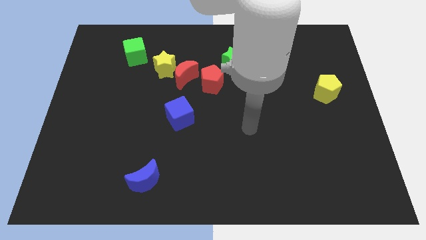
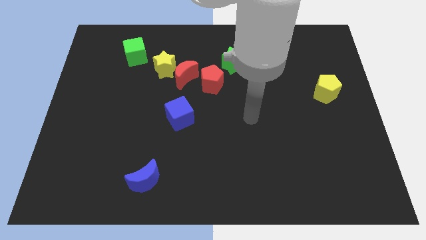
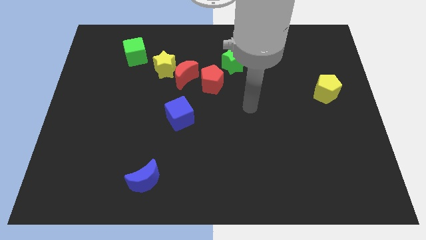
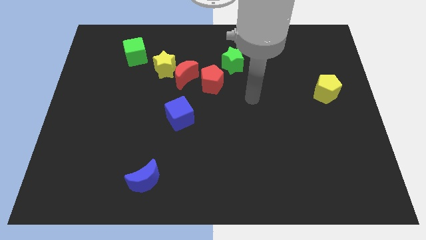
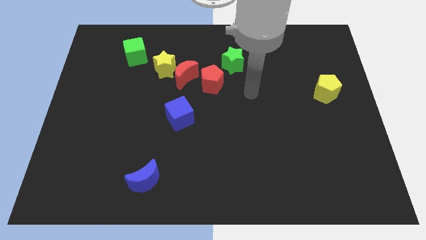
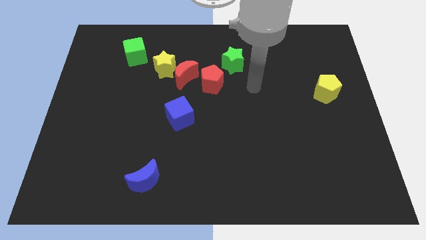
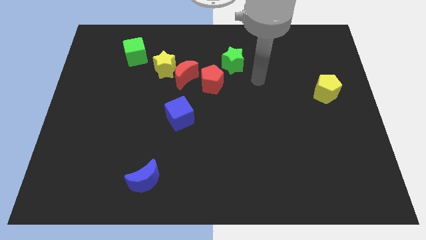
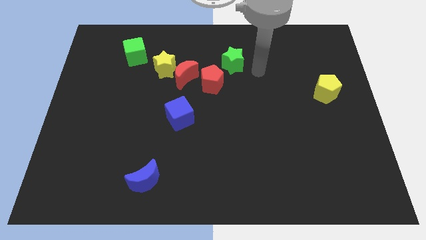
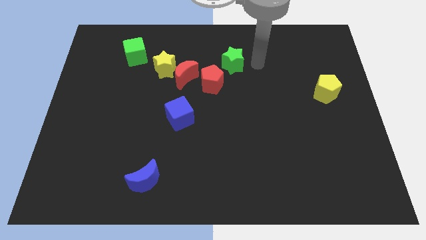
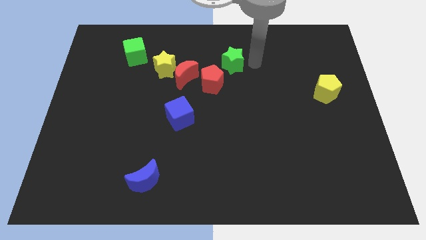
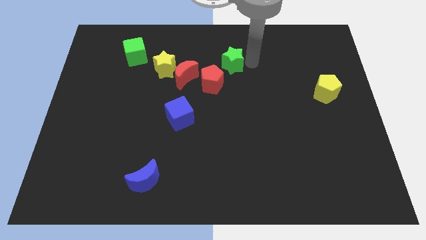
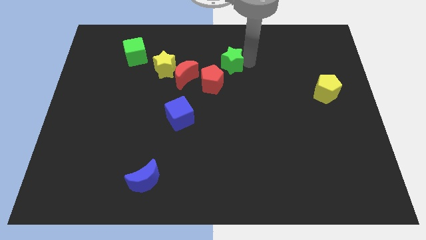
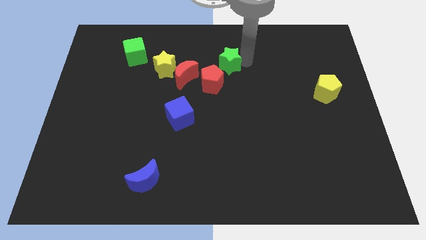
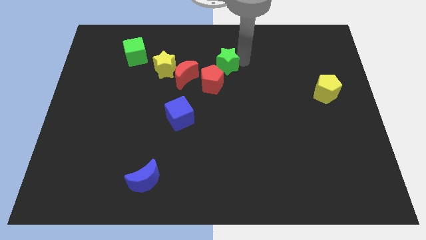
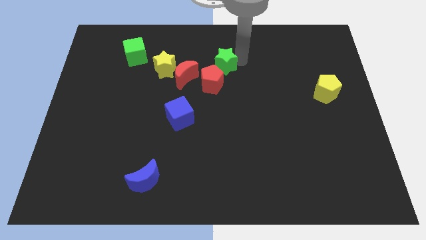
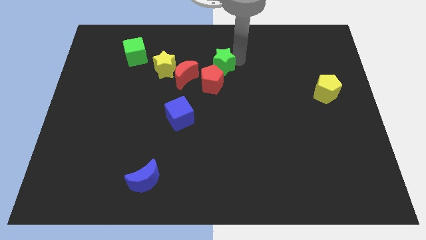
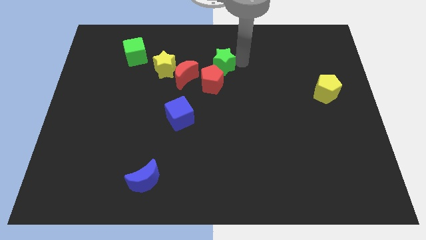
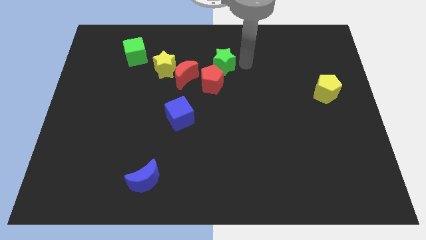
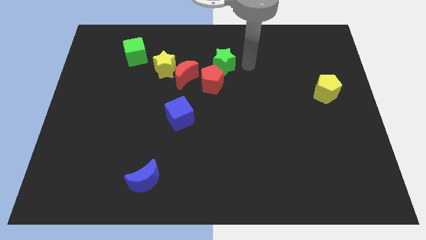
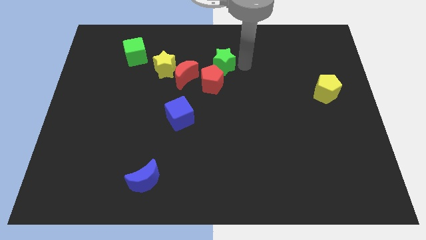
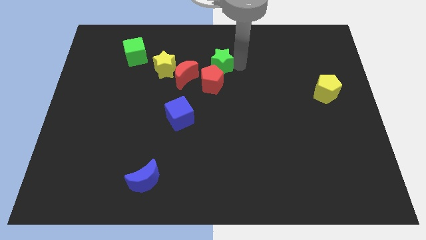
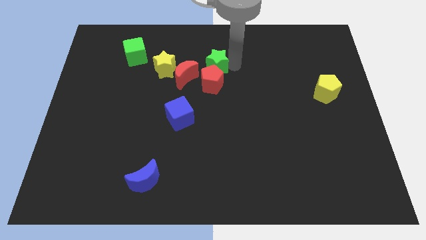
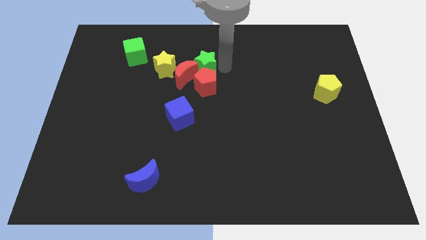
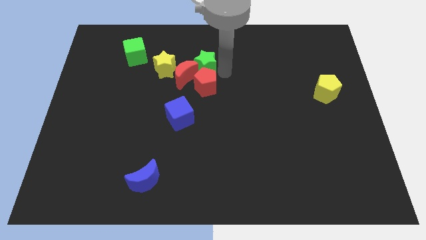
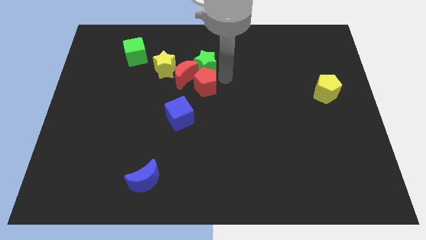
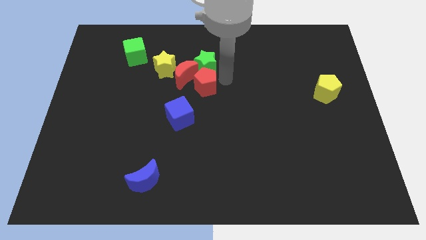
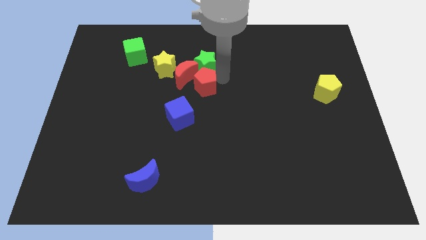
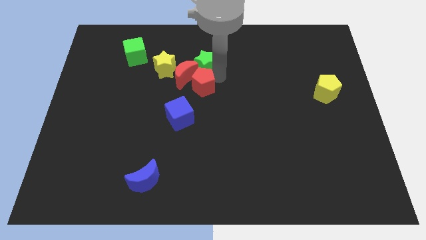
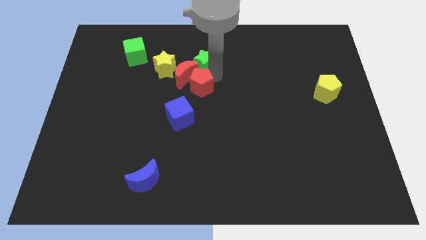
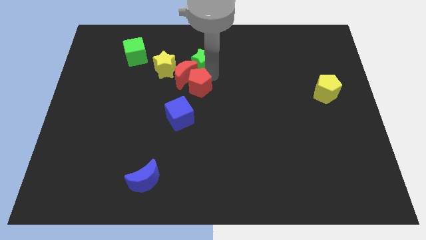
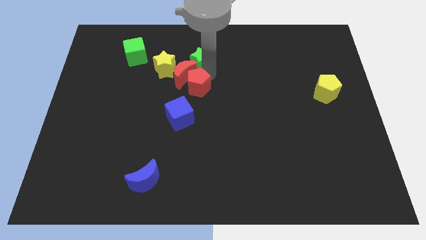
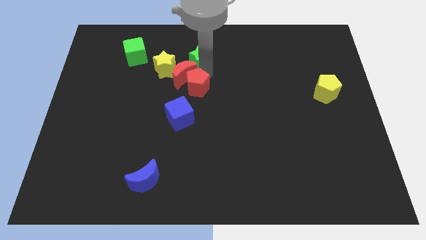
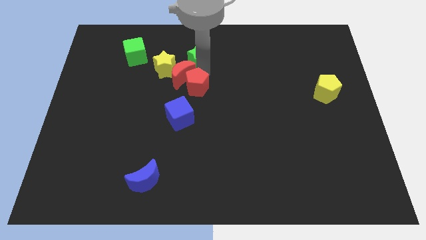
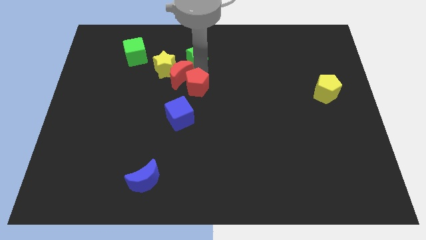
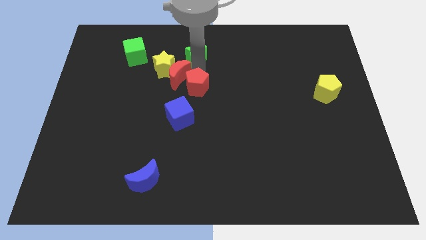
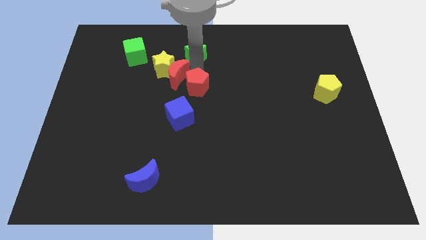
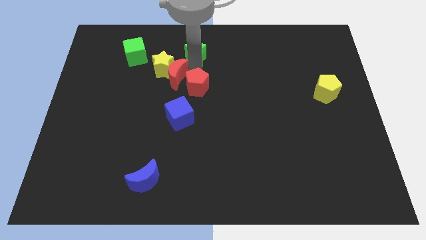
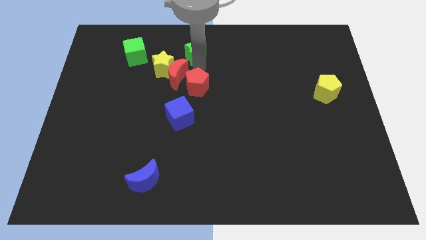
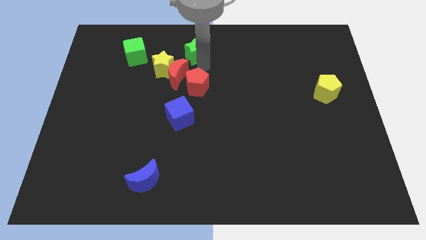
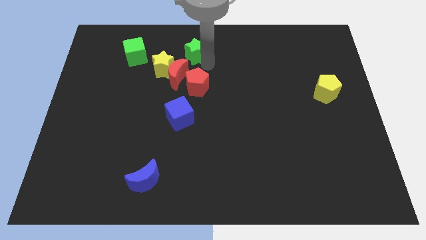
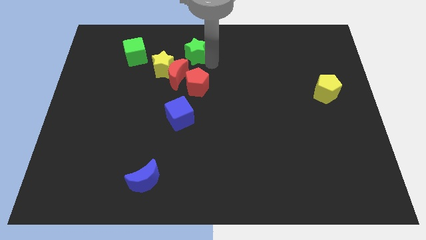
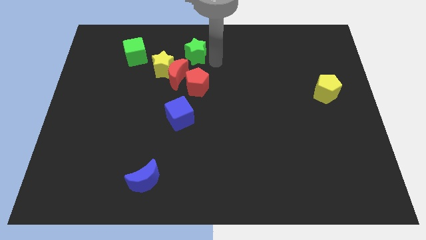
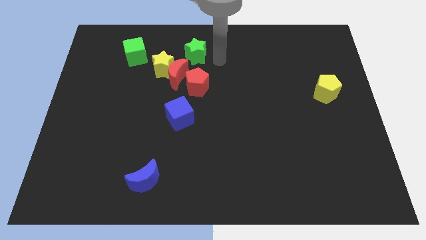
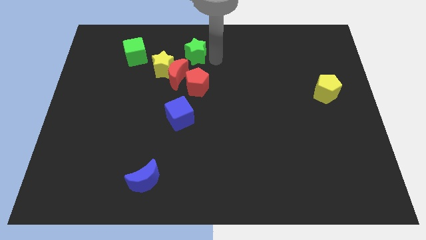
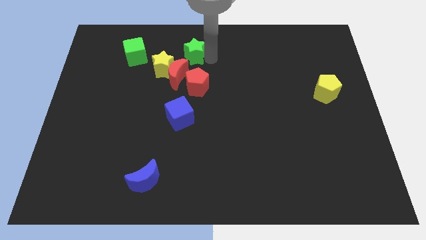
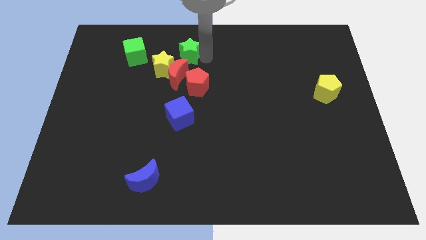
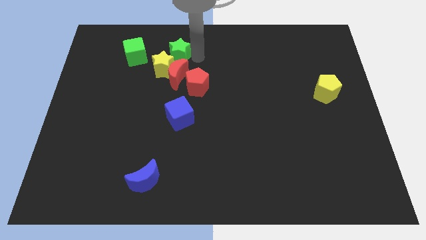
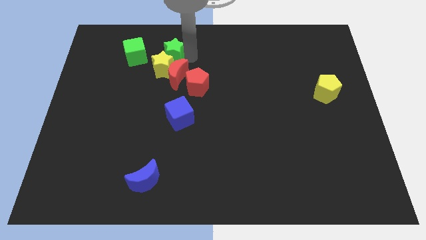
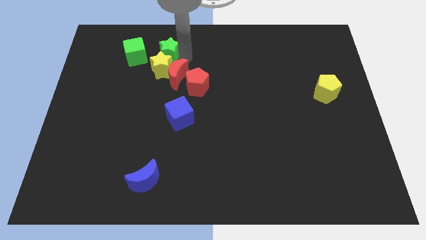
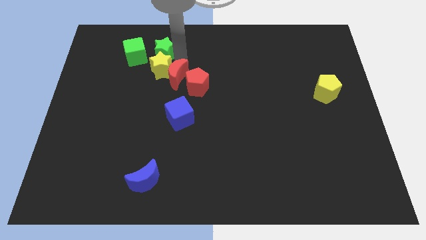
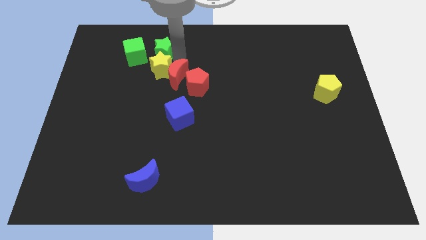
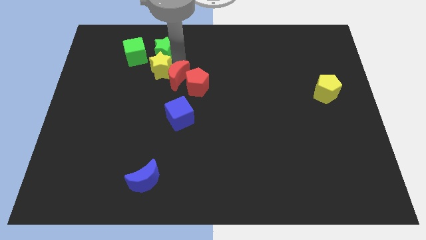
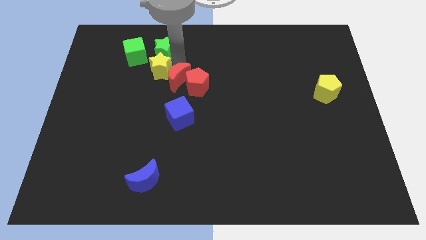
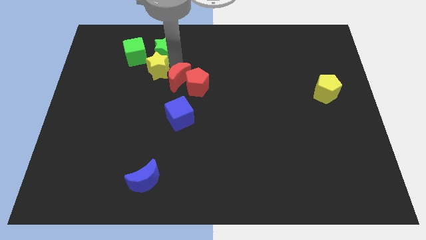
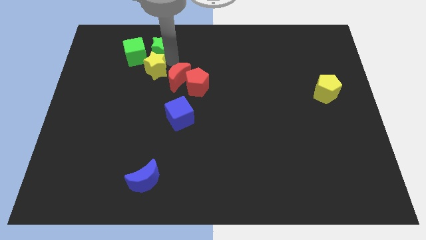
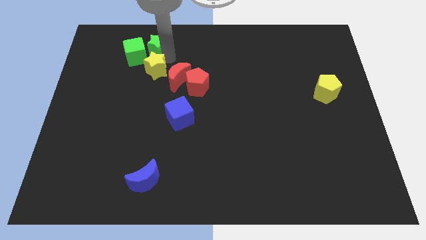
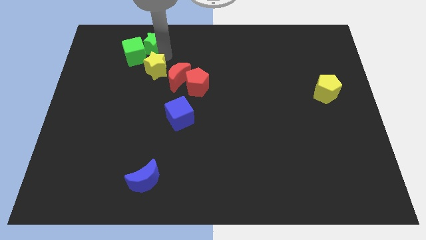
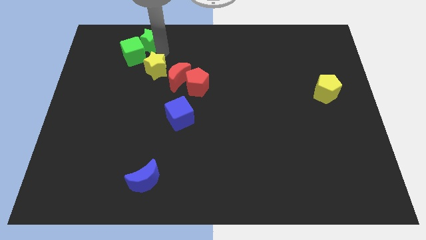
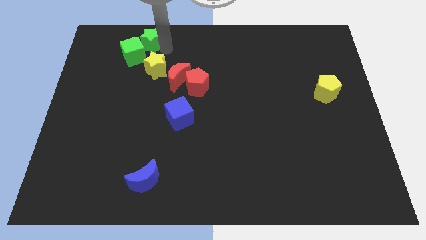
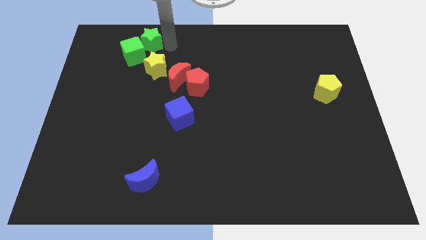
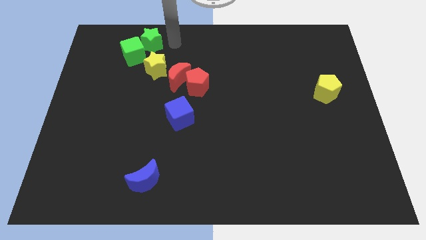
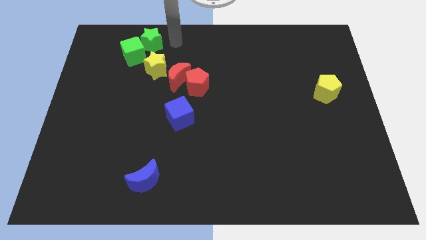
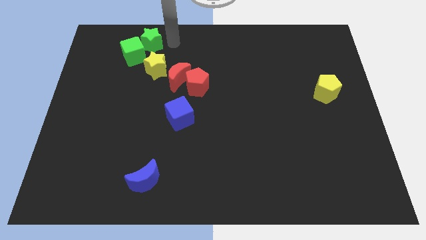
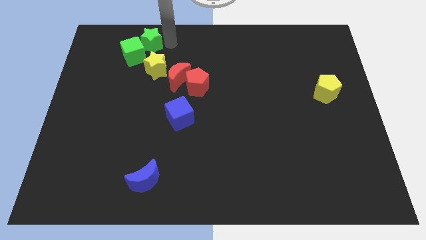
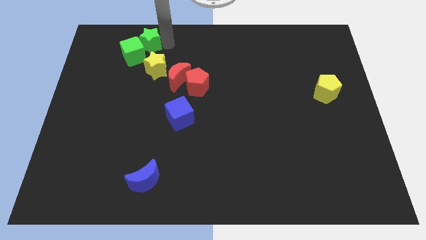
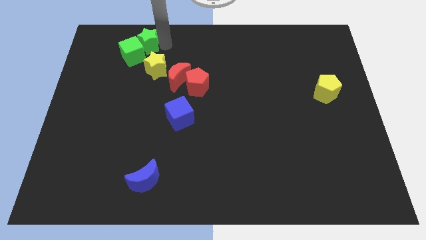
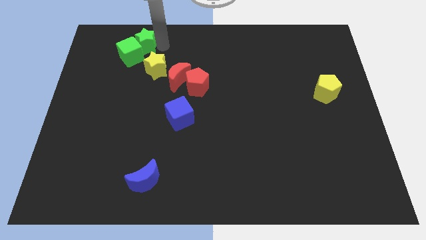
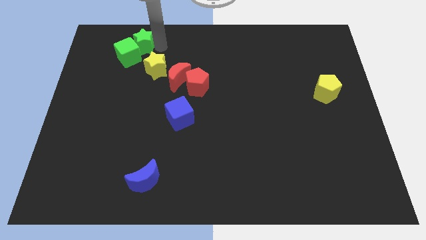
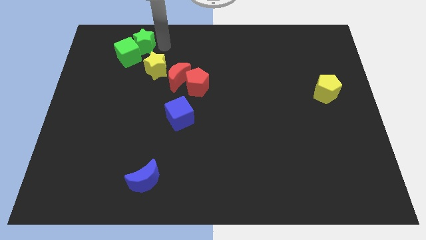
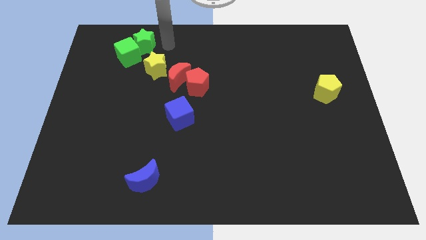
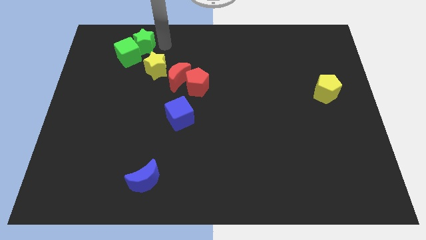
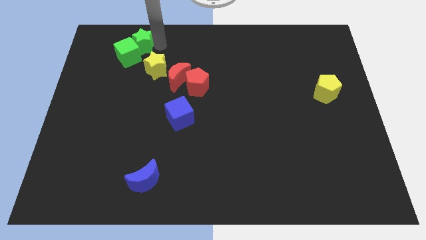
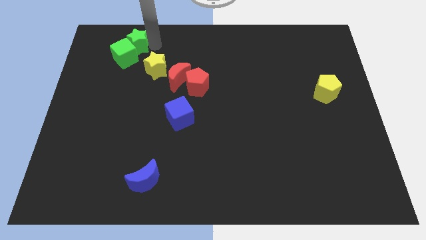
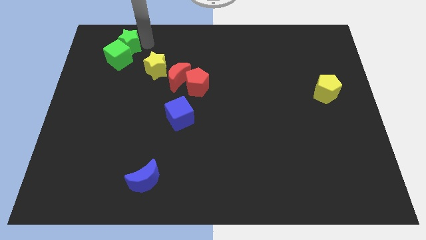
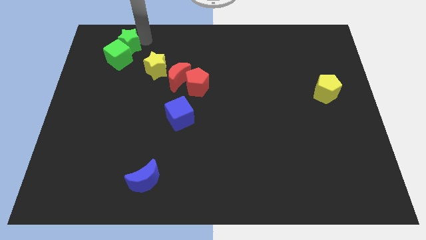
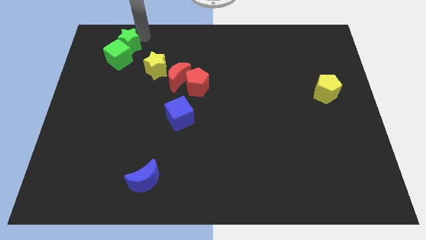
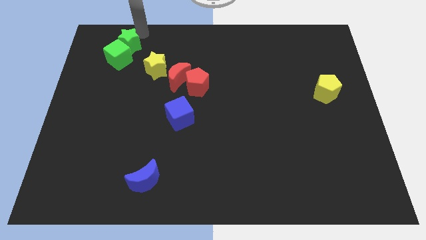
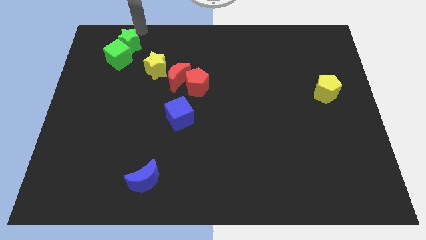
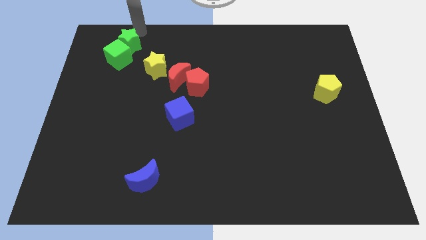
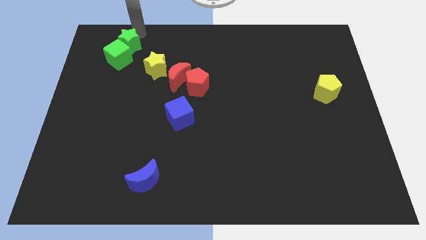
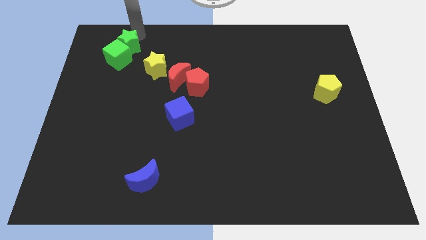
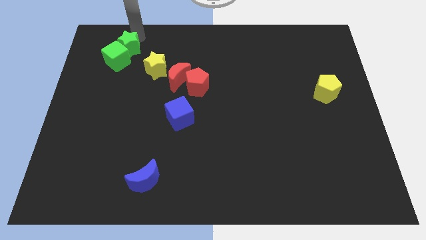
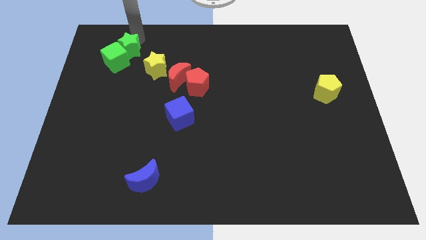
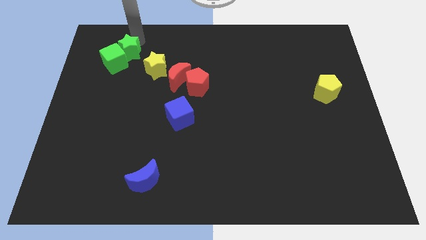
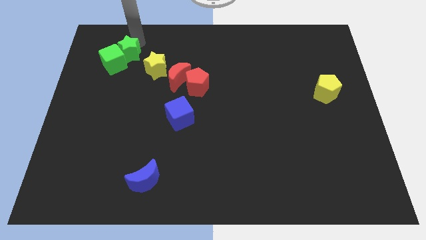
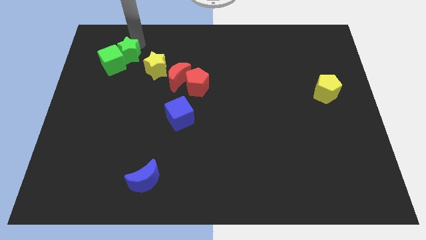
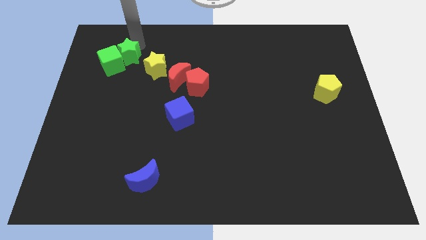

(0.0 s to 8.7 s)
push the green star to the left of the yellow star
